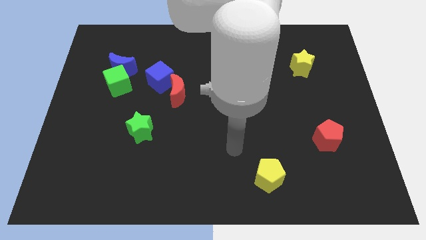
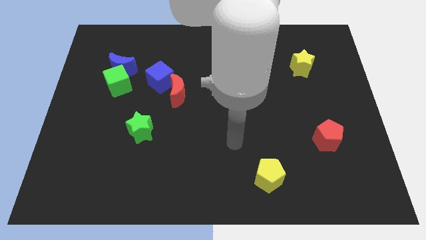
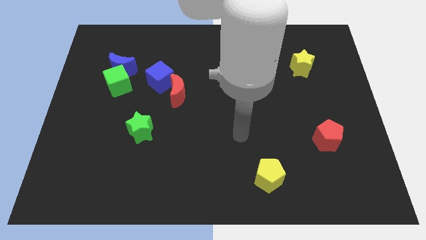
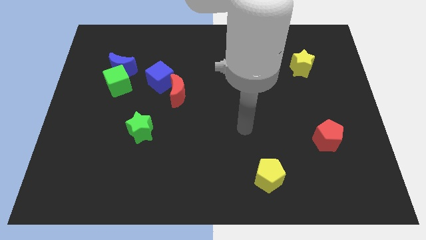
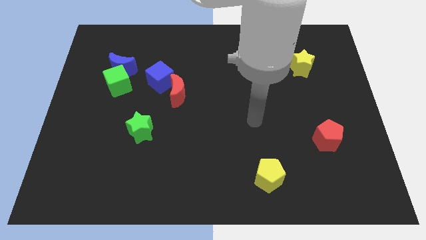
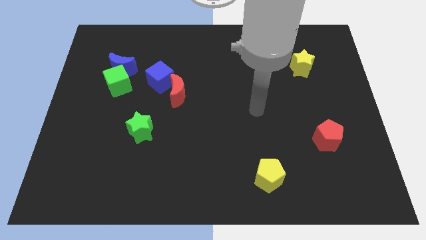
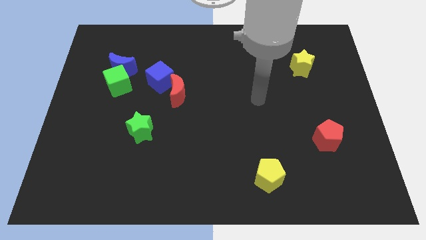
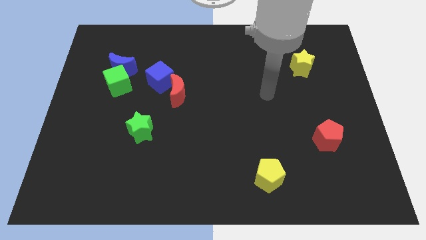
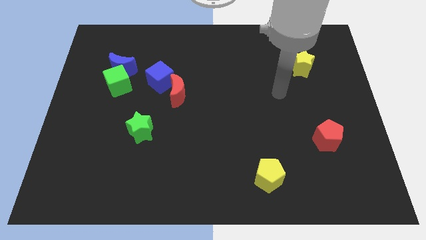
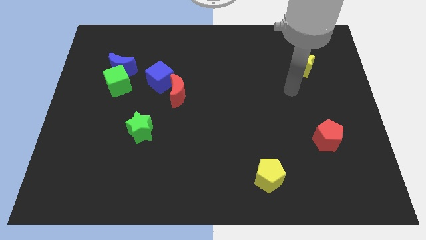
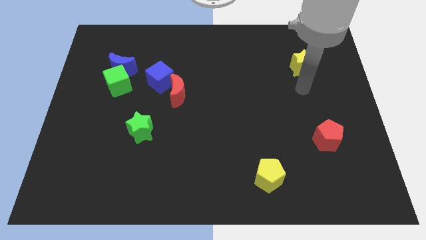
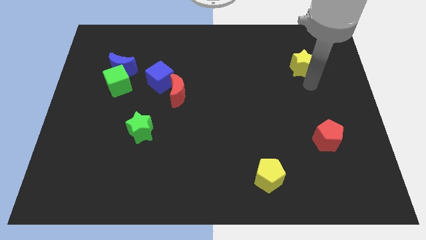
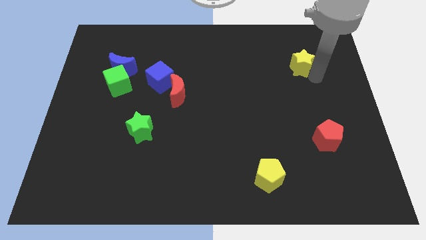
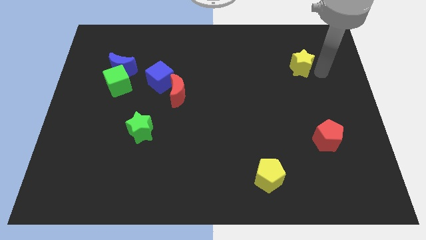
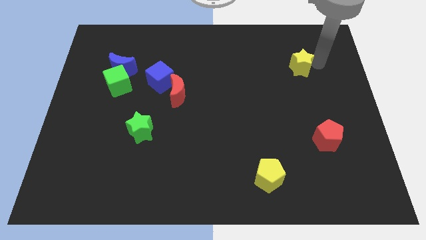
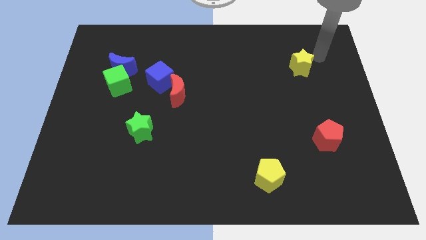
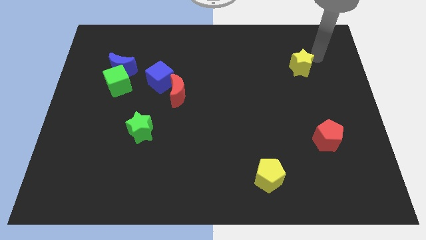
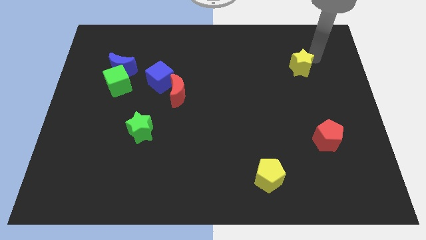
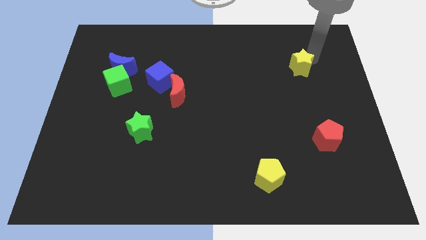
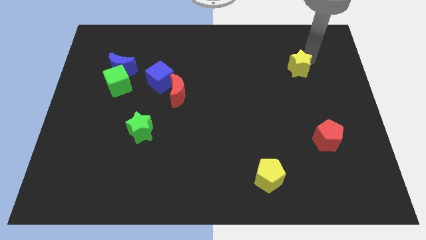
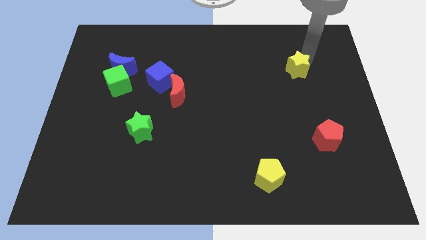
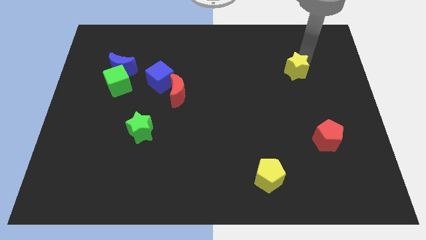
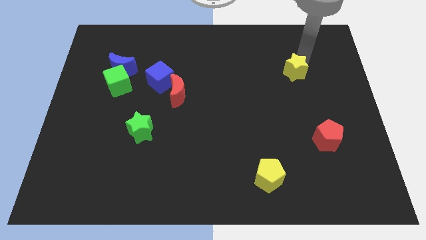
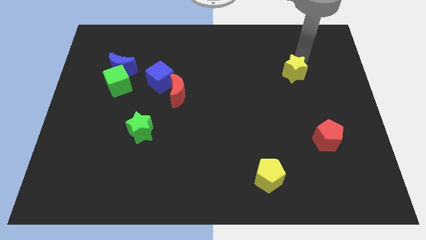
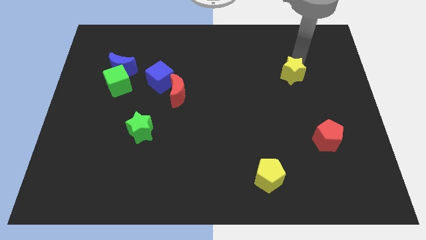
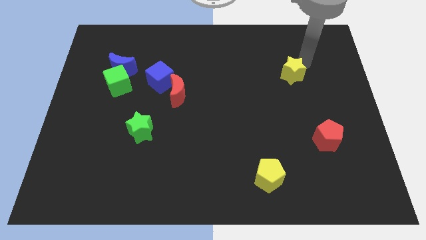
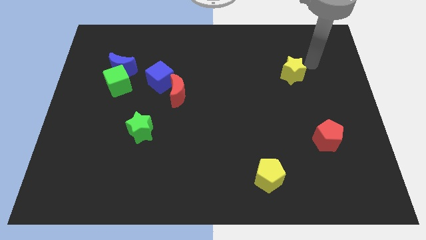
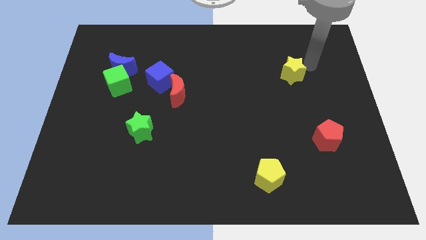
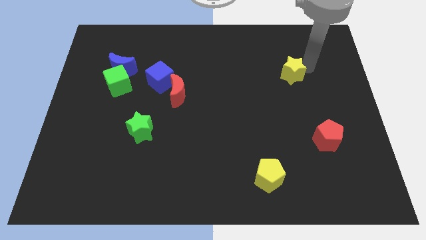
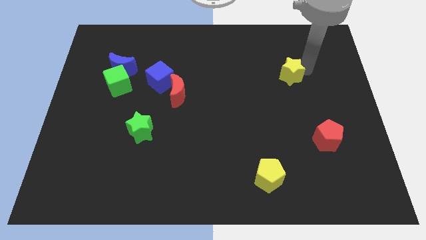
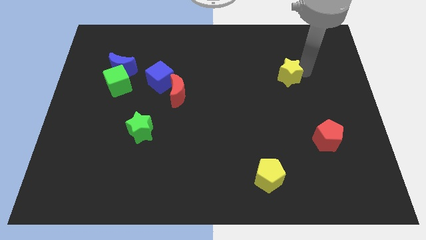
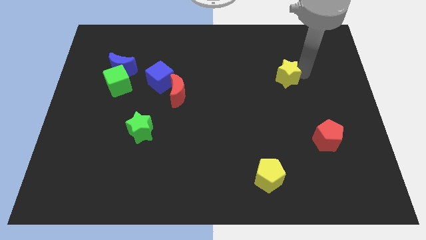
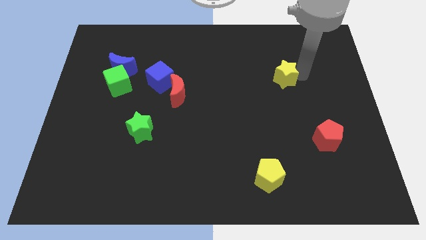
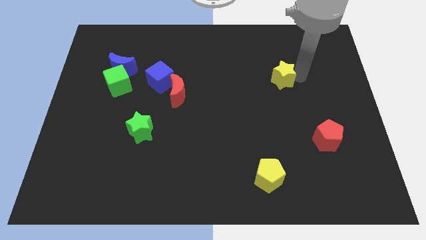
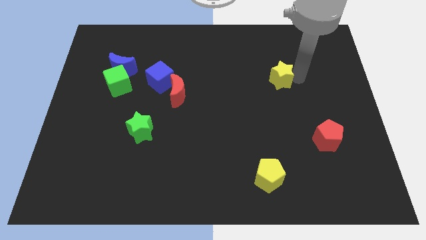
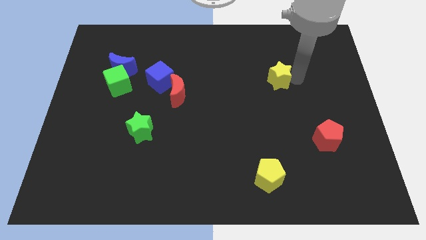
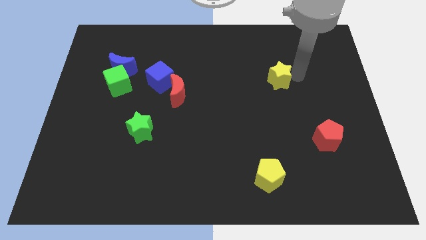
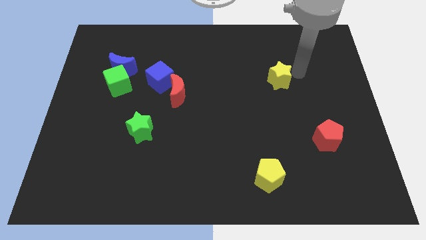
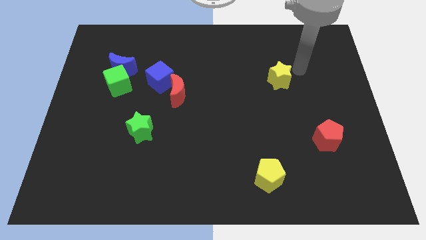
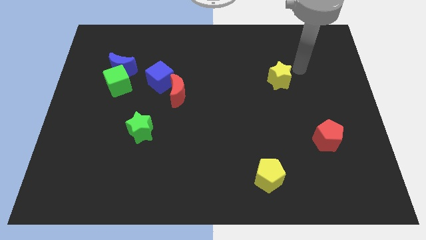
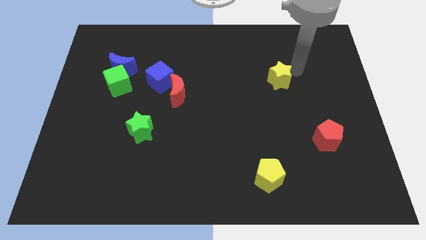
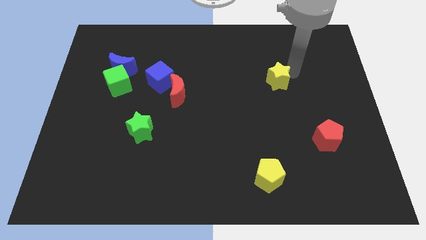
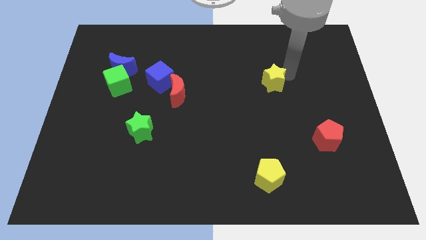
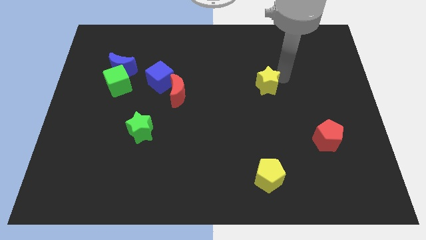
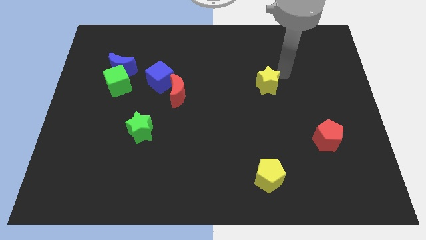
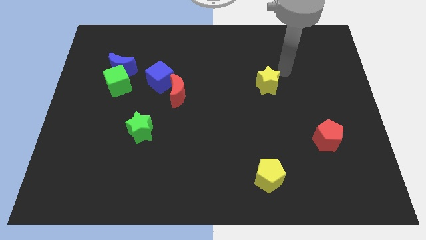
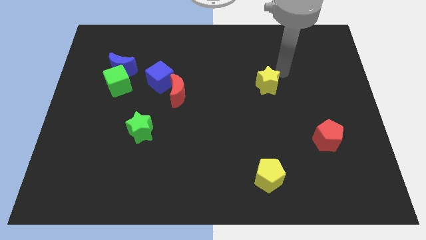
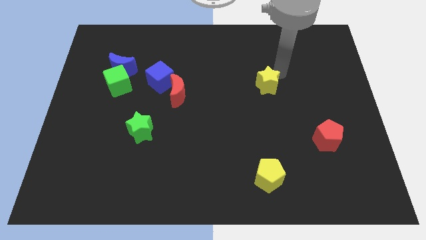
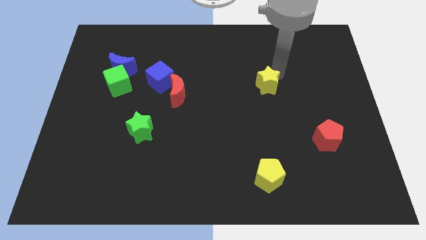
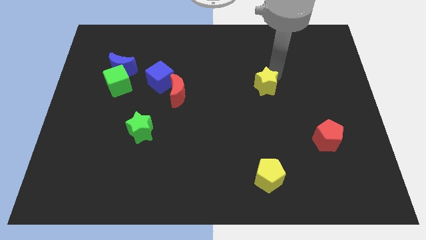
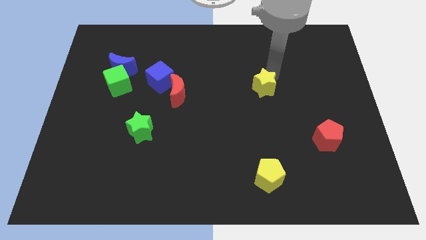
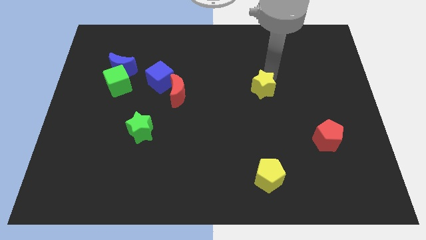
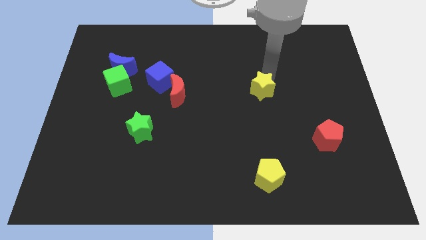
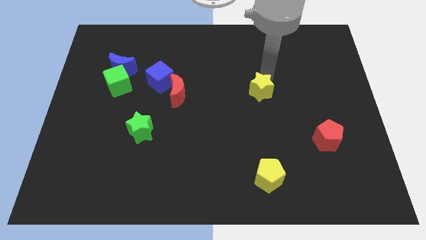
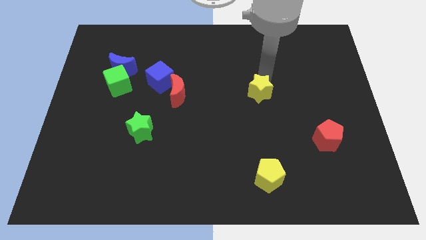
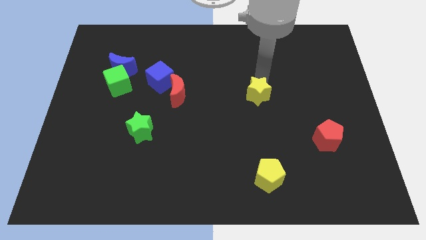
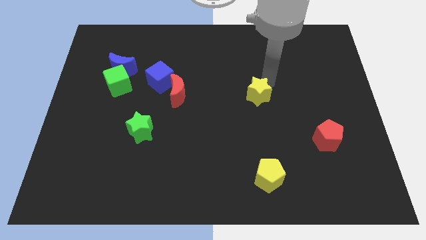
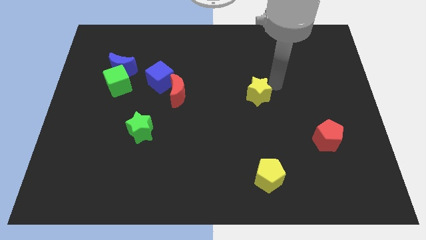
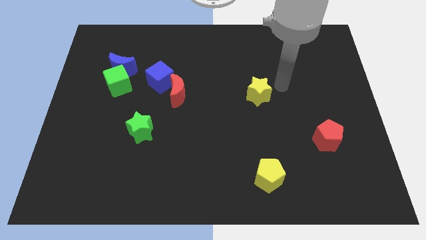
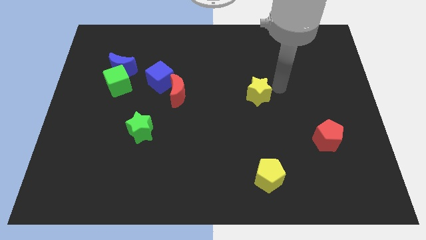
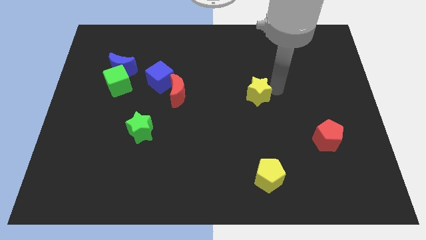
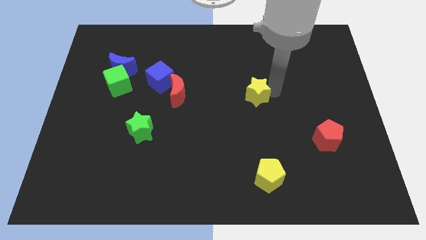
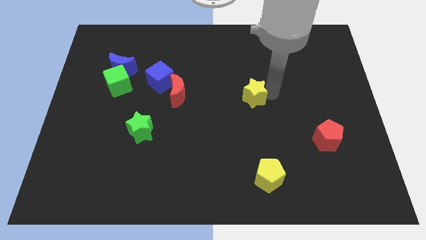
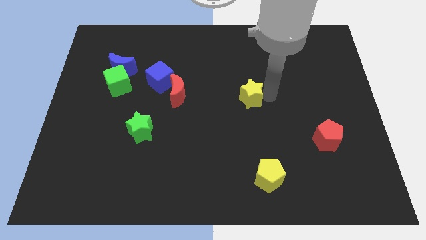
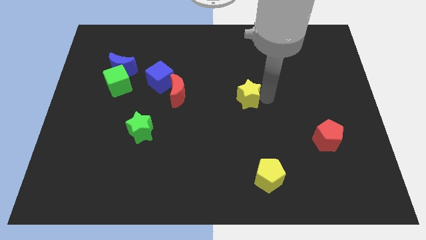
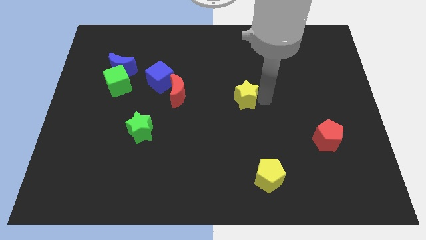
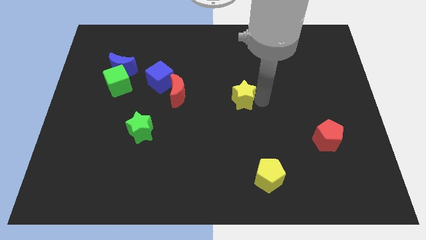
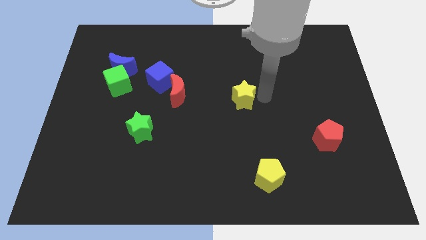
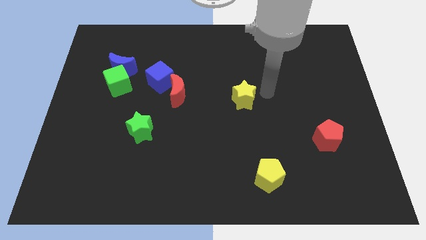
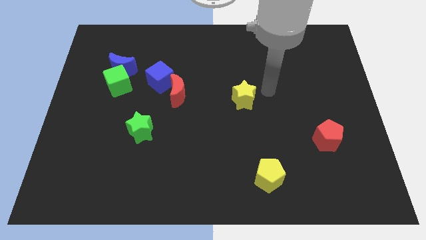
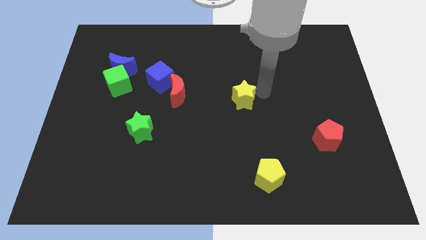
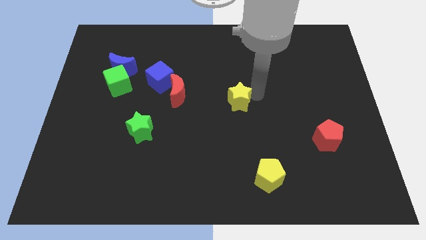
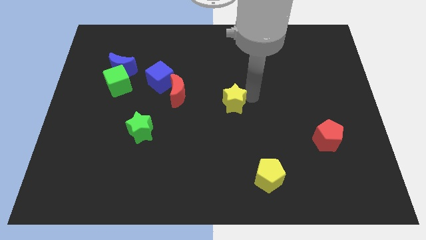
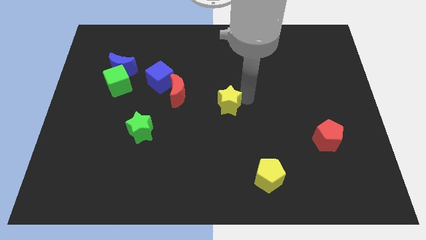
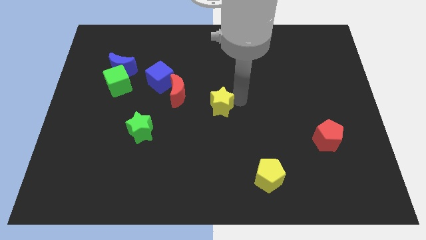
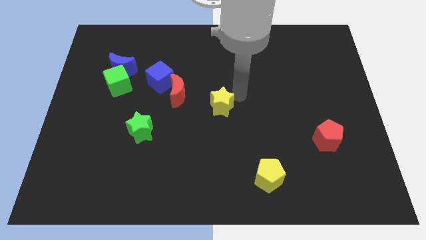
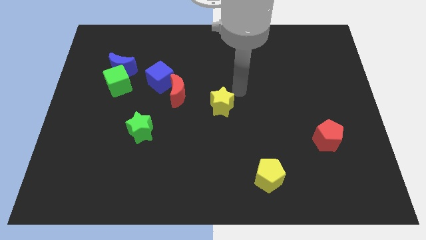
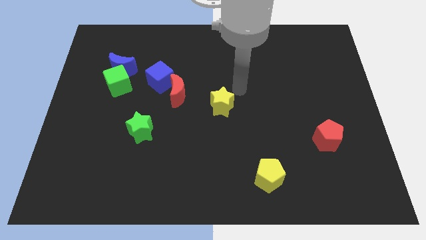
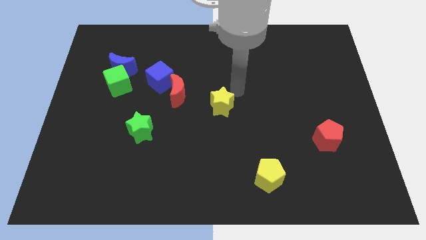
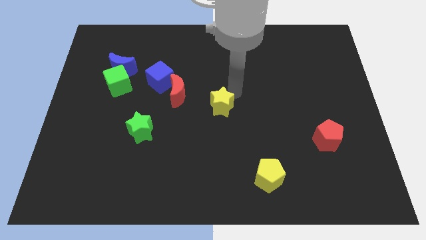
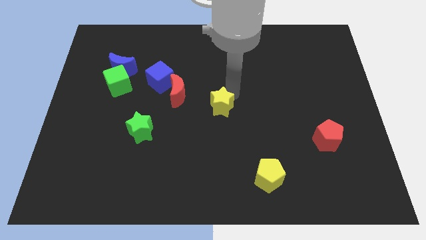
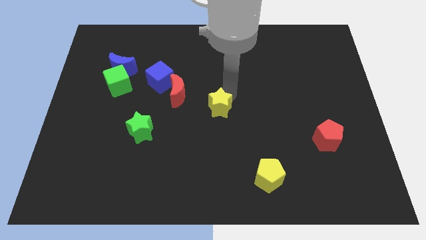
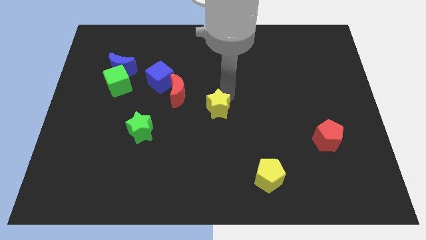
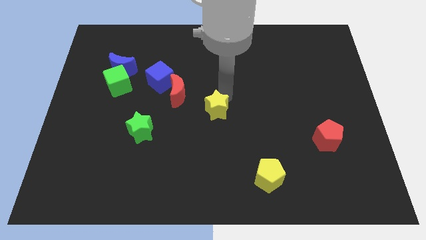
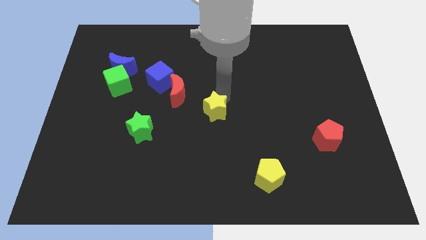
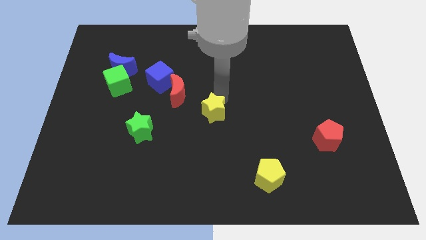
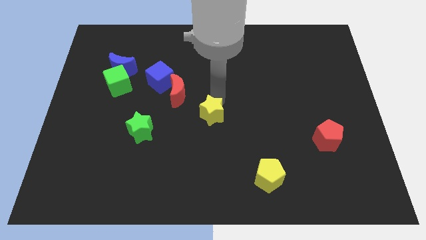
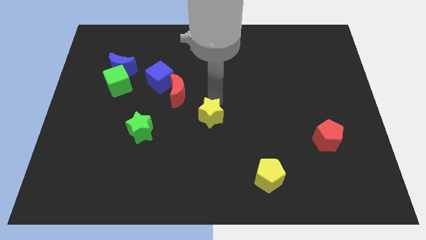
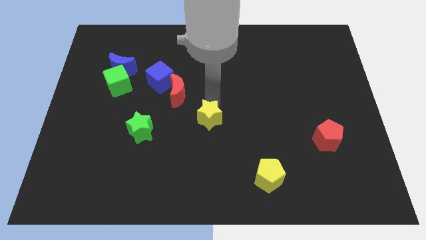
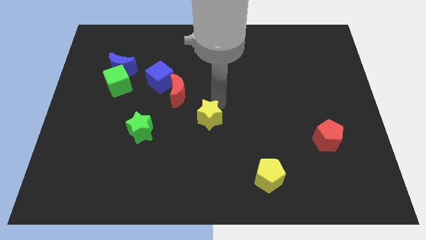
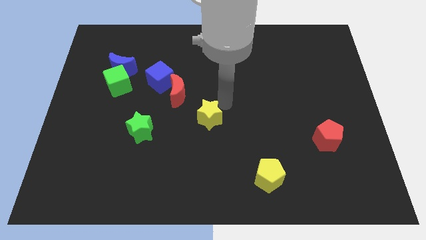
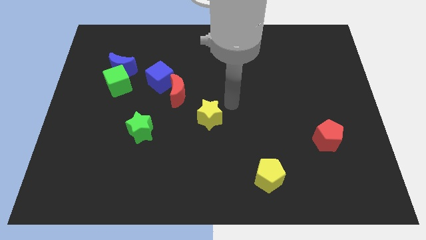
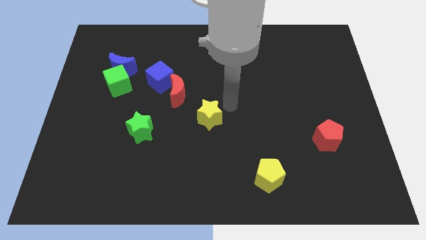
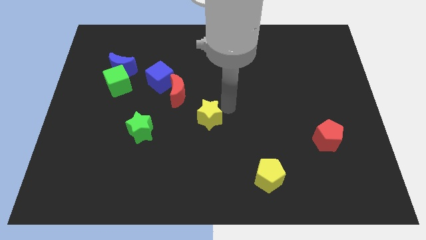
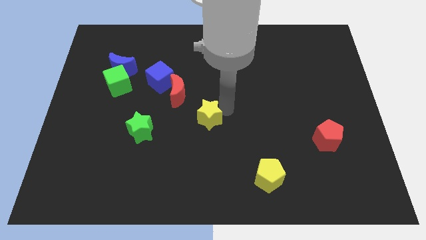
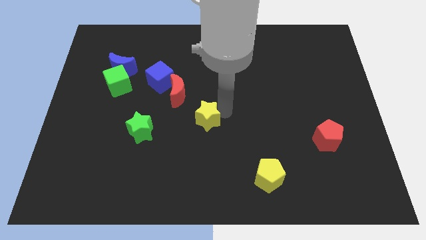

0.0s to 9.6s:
put the yellow star to the right side of the green star
